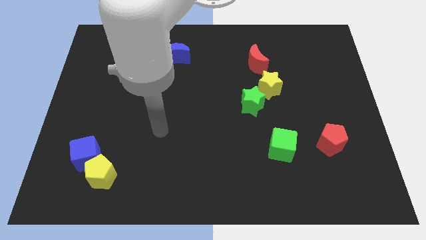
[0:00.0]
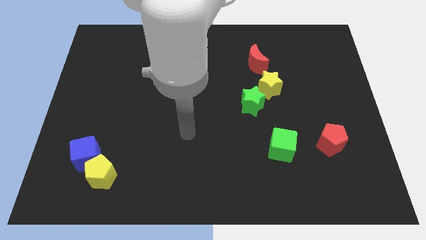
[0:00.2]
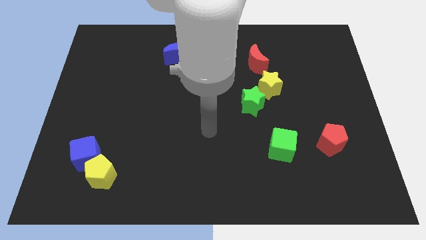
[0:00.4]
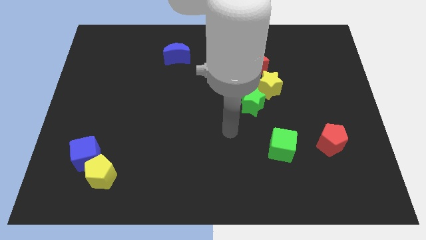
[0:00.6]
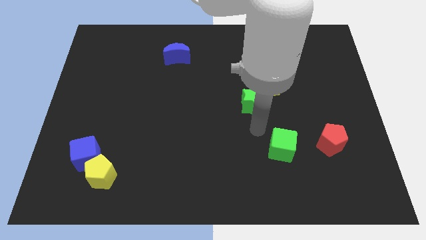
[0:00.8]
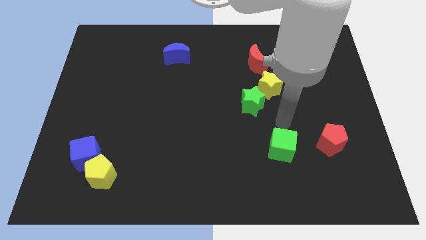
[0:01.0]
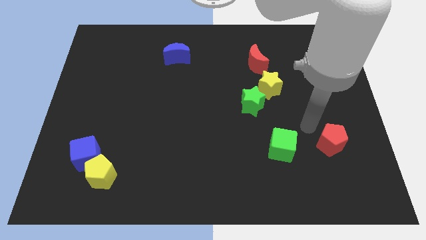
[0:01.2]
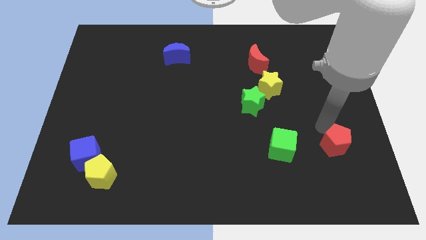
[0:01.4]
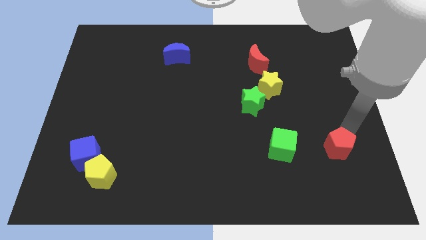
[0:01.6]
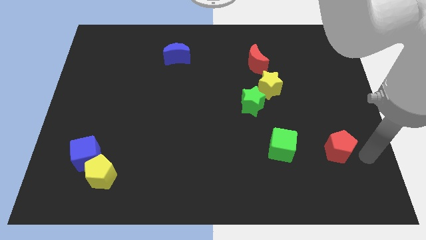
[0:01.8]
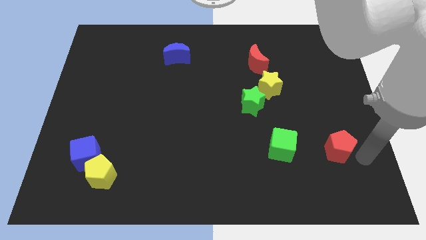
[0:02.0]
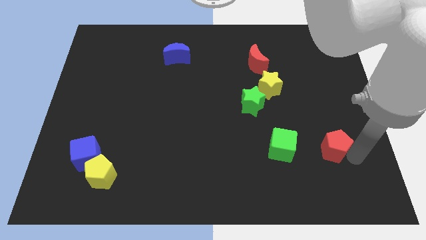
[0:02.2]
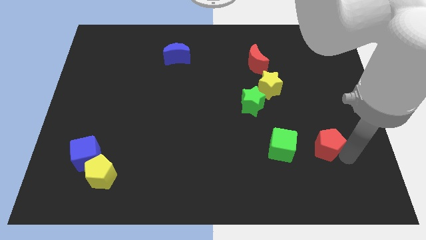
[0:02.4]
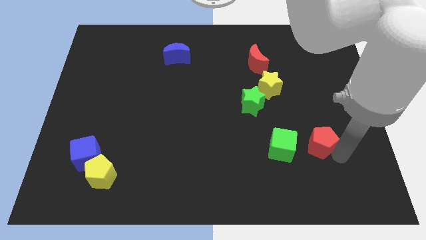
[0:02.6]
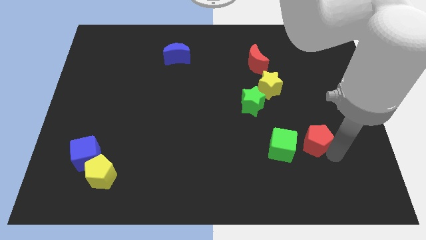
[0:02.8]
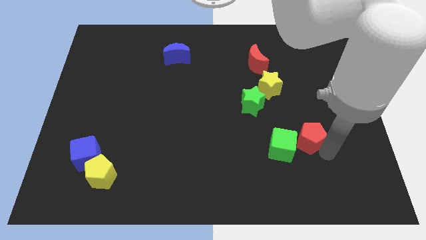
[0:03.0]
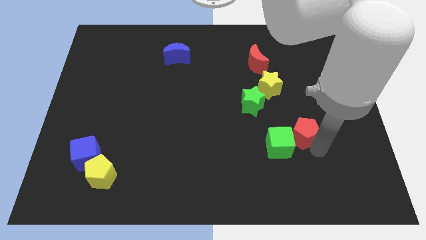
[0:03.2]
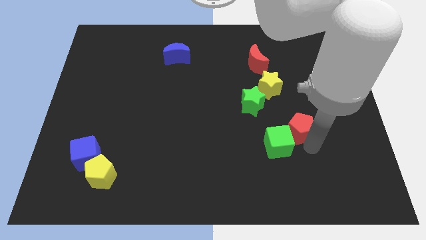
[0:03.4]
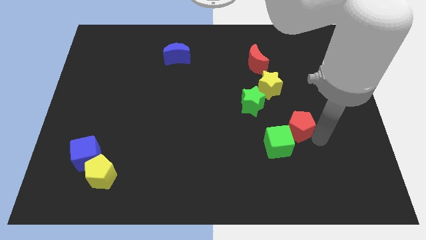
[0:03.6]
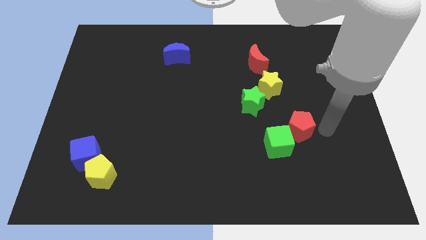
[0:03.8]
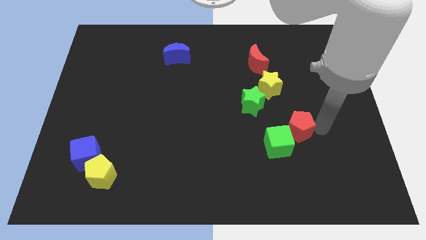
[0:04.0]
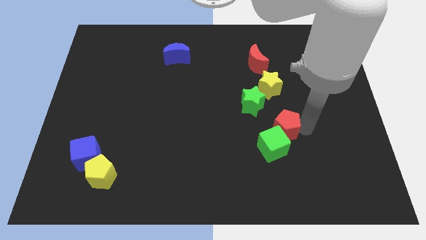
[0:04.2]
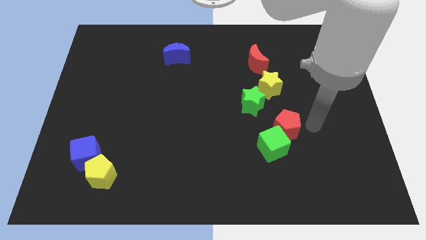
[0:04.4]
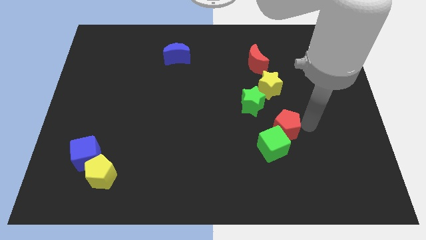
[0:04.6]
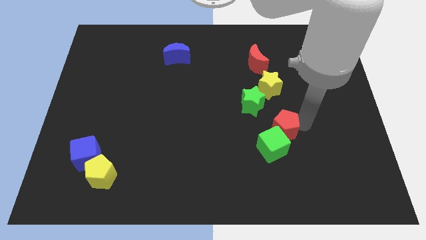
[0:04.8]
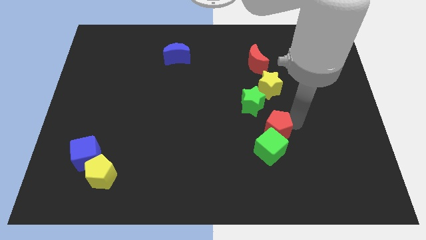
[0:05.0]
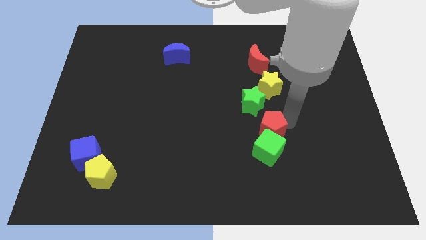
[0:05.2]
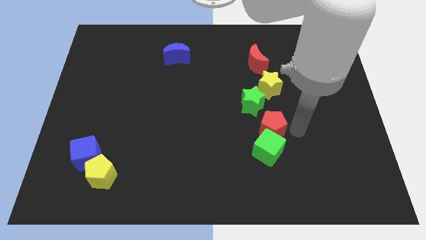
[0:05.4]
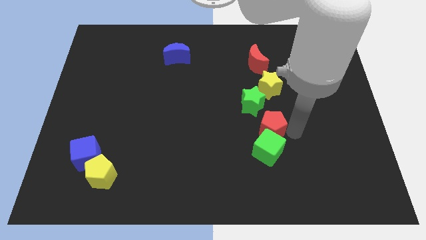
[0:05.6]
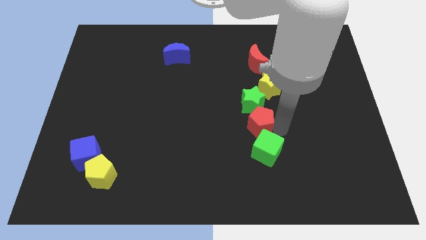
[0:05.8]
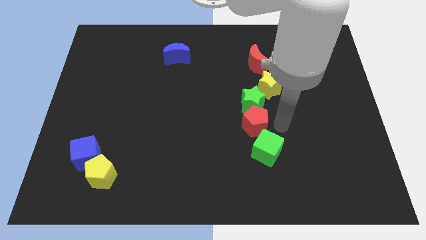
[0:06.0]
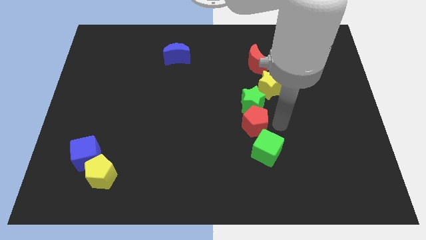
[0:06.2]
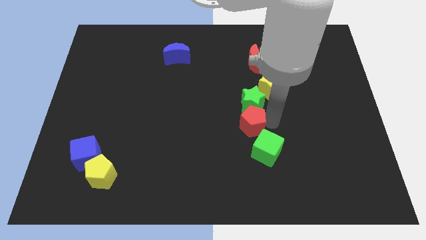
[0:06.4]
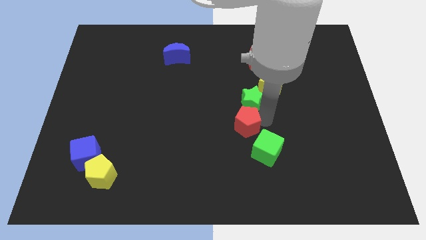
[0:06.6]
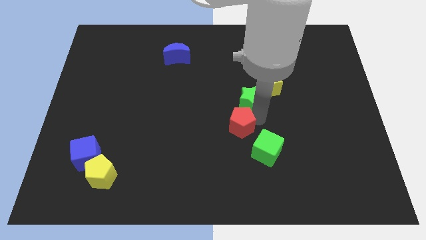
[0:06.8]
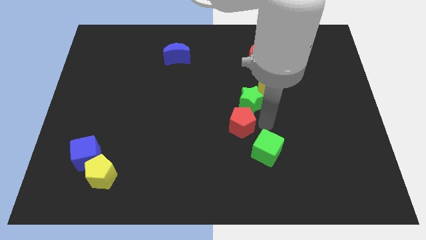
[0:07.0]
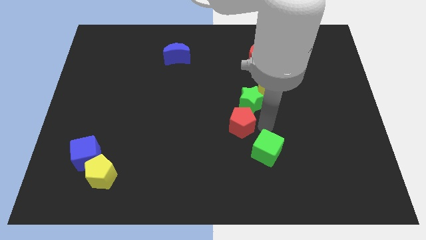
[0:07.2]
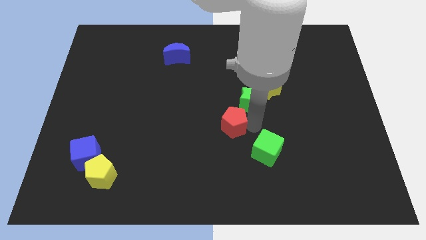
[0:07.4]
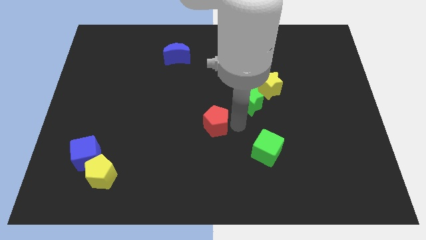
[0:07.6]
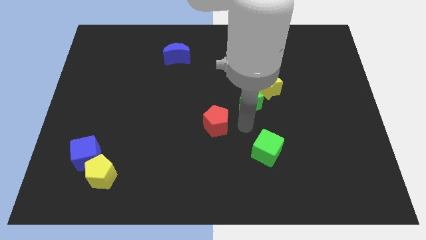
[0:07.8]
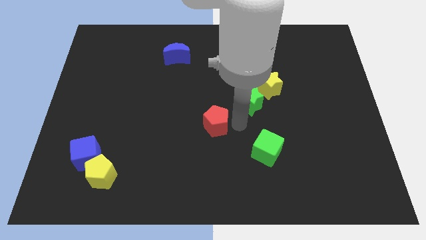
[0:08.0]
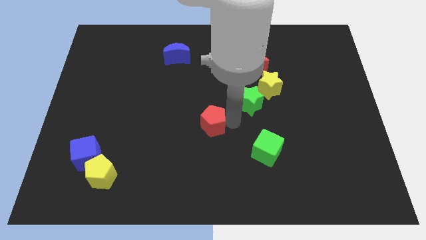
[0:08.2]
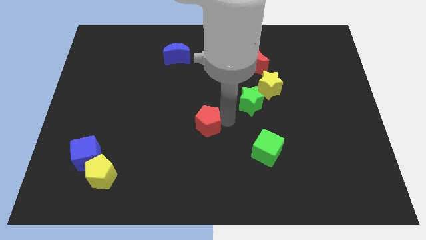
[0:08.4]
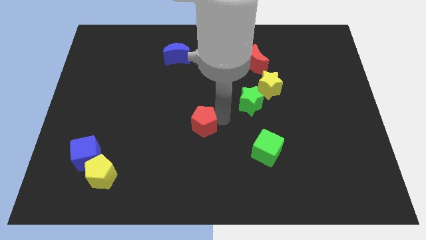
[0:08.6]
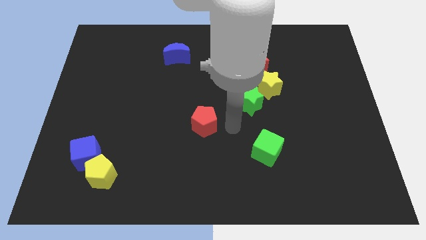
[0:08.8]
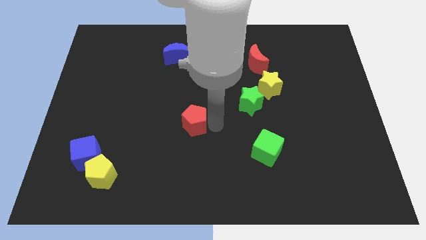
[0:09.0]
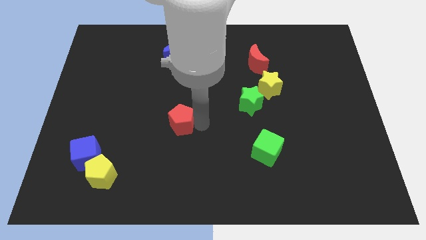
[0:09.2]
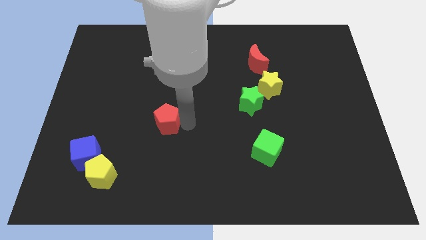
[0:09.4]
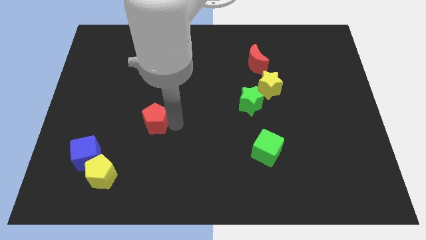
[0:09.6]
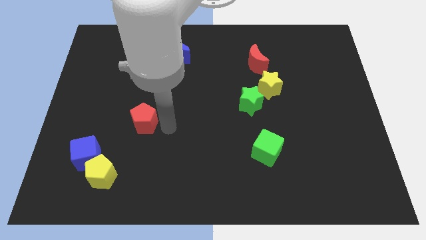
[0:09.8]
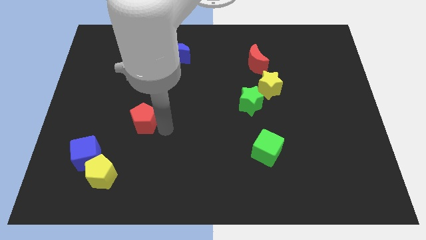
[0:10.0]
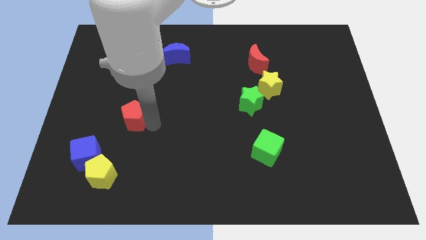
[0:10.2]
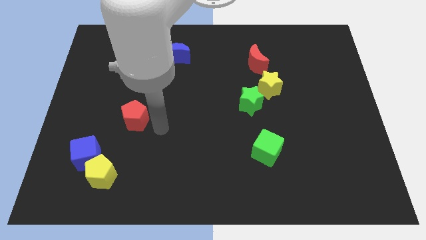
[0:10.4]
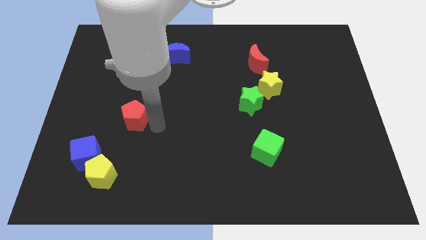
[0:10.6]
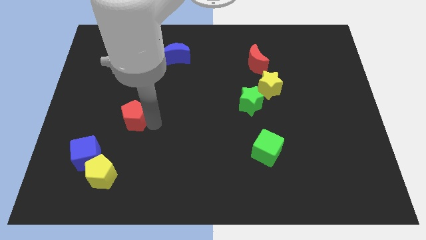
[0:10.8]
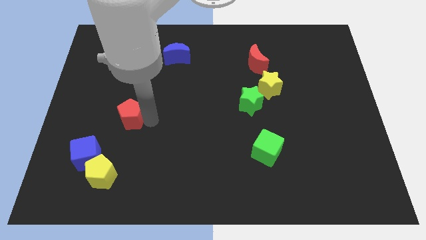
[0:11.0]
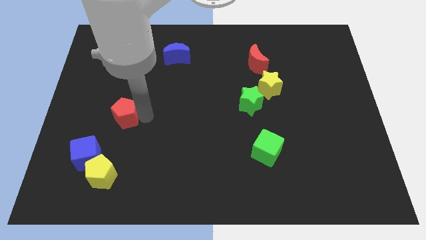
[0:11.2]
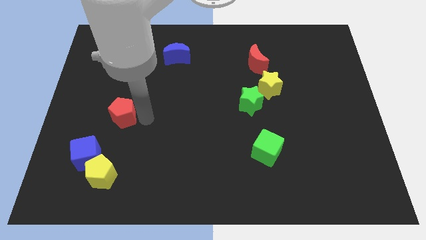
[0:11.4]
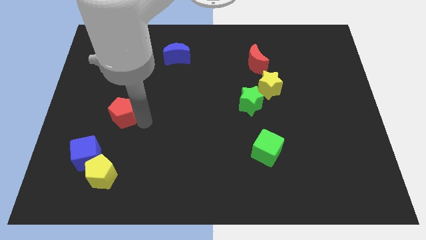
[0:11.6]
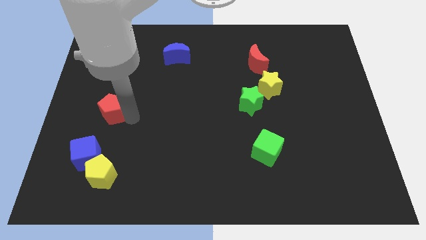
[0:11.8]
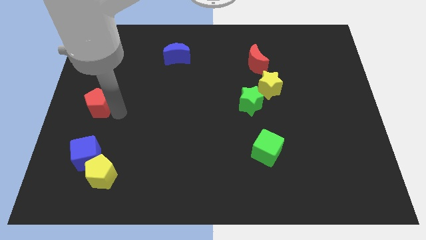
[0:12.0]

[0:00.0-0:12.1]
slide the red pentagon to the left side of the board
